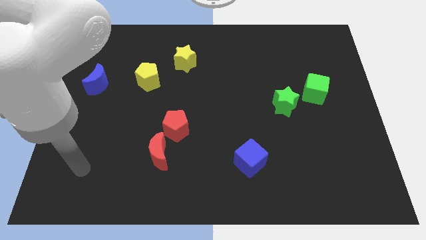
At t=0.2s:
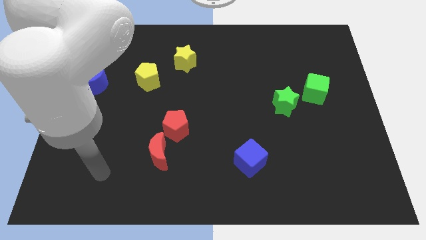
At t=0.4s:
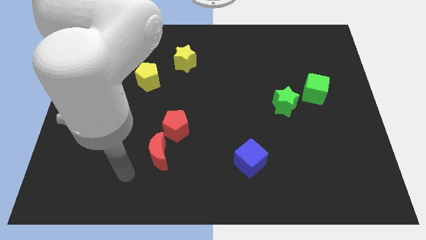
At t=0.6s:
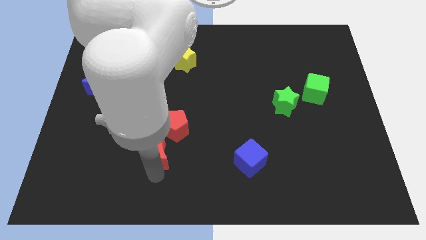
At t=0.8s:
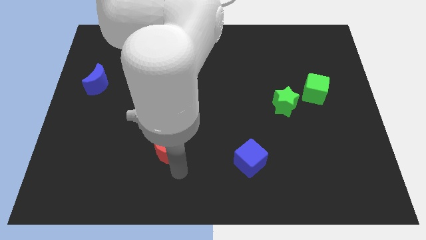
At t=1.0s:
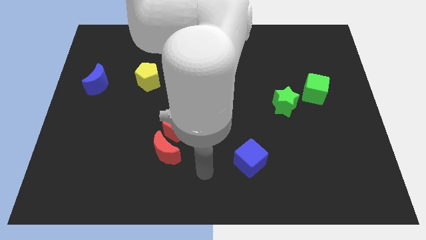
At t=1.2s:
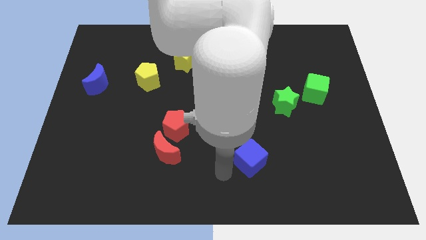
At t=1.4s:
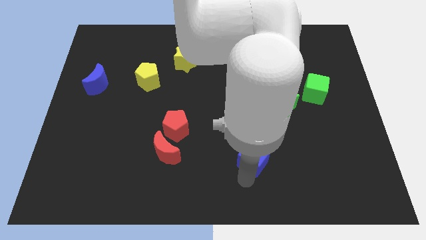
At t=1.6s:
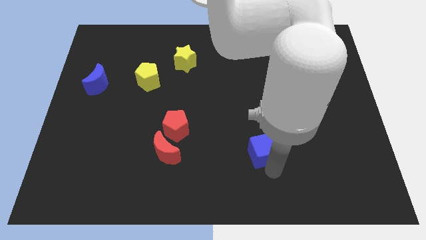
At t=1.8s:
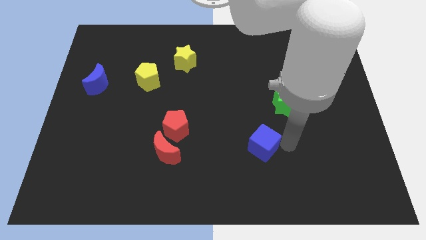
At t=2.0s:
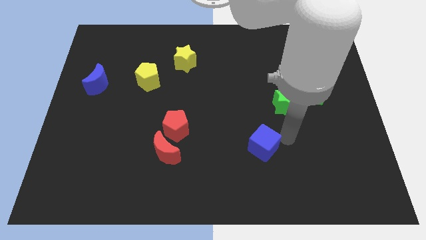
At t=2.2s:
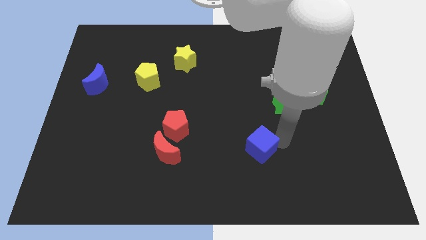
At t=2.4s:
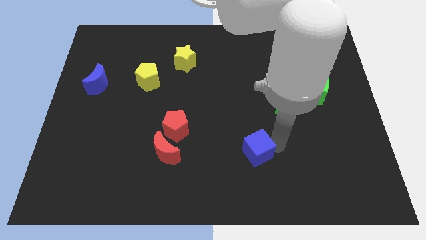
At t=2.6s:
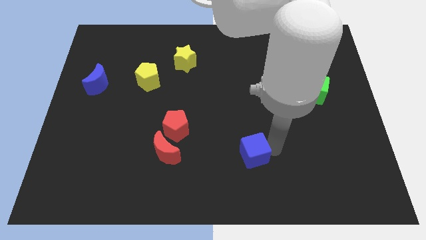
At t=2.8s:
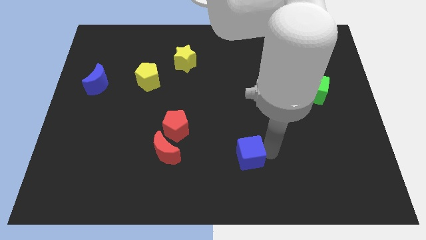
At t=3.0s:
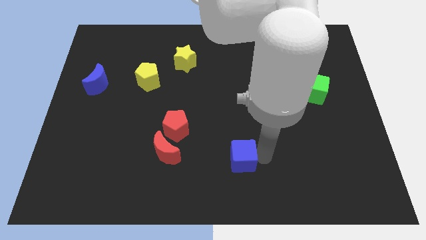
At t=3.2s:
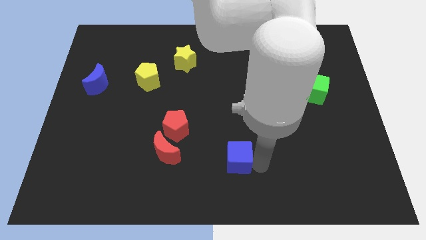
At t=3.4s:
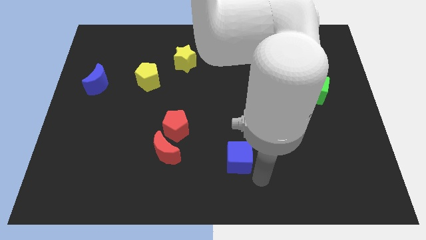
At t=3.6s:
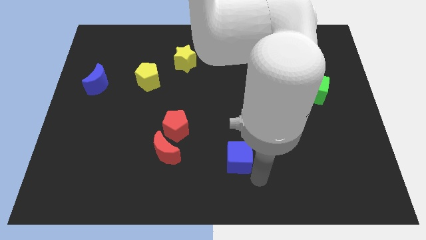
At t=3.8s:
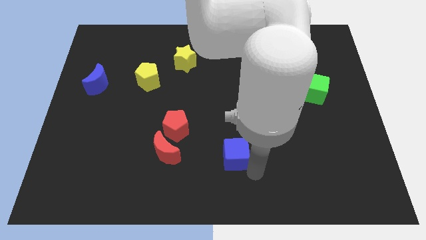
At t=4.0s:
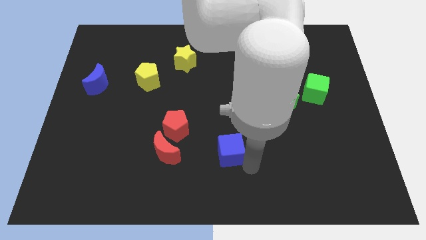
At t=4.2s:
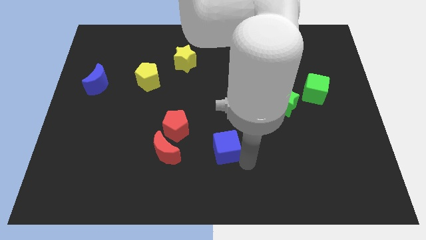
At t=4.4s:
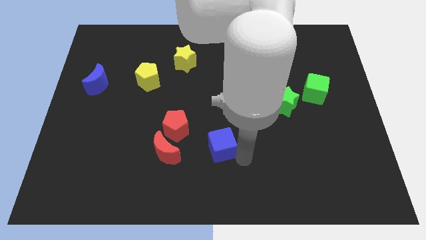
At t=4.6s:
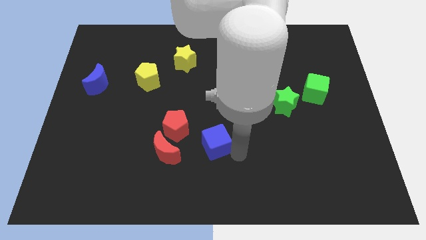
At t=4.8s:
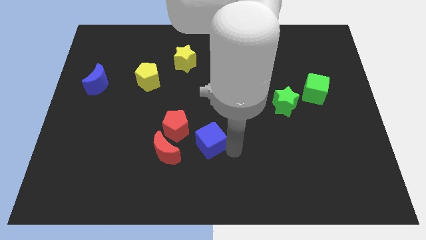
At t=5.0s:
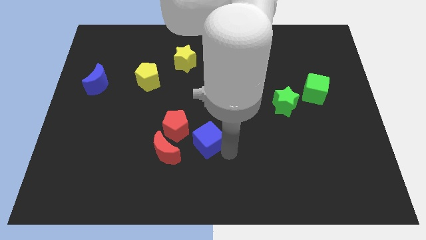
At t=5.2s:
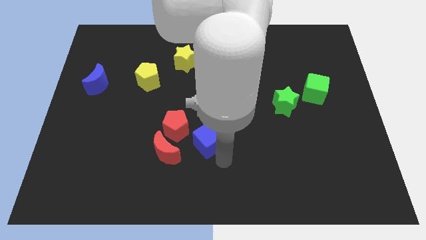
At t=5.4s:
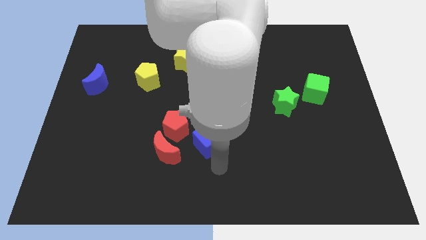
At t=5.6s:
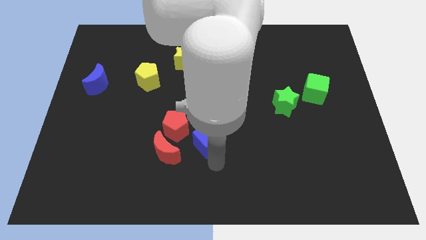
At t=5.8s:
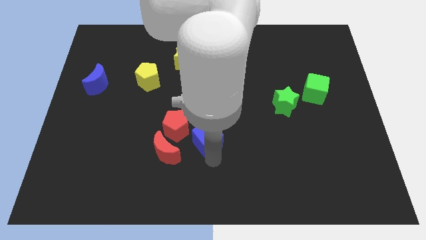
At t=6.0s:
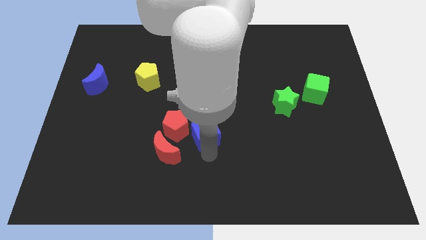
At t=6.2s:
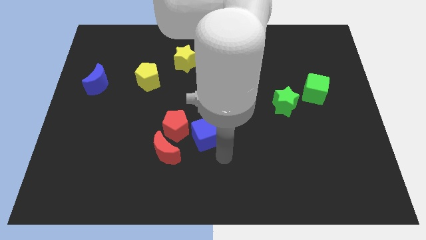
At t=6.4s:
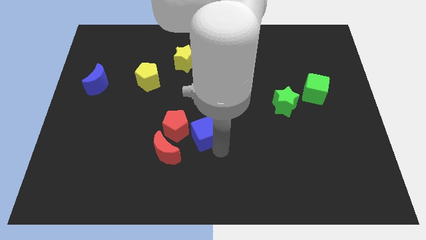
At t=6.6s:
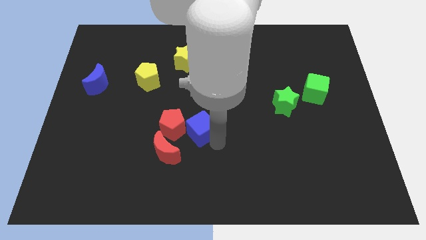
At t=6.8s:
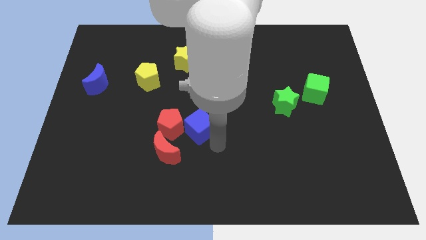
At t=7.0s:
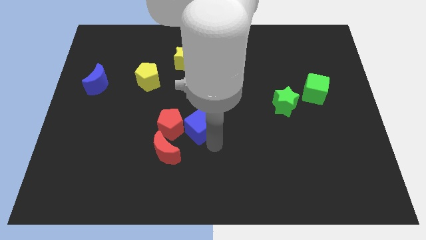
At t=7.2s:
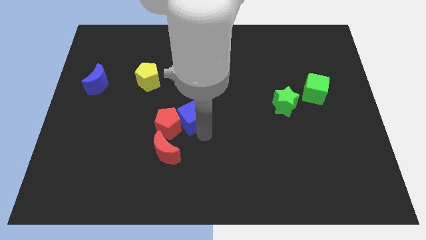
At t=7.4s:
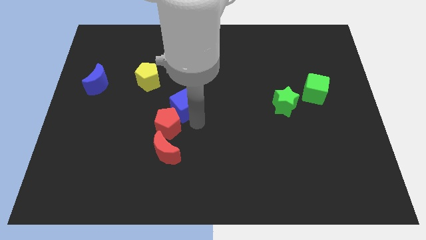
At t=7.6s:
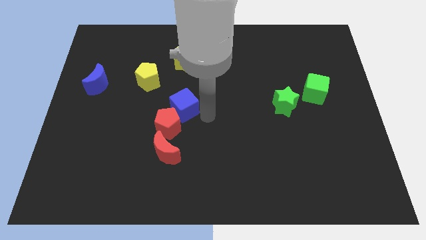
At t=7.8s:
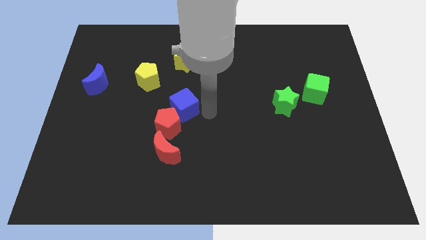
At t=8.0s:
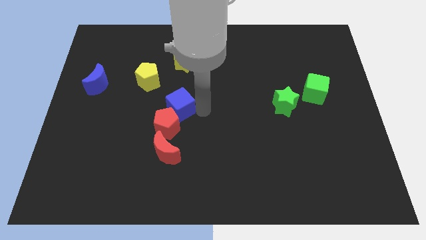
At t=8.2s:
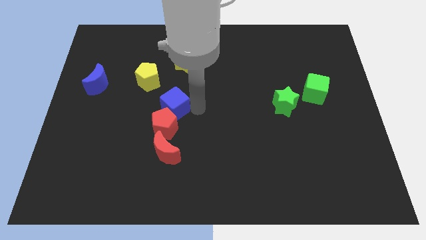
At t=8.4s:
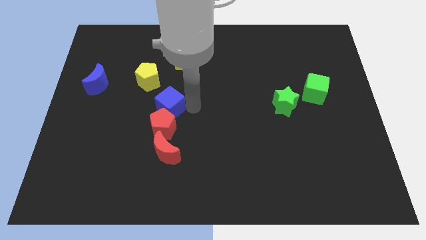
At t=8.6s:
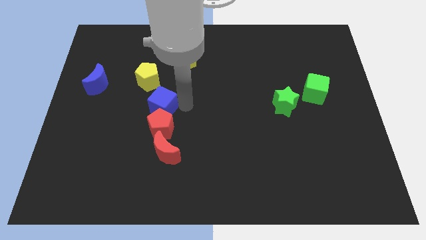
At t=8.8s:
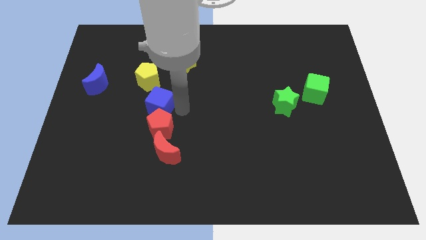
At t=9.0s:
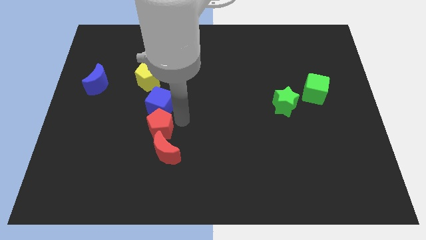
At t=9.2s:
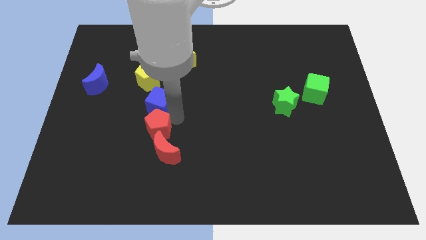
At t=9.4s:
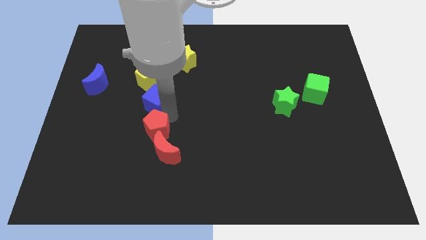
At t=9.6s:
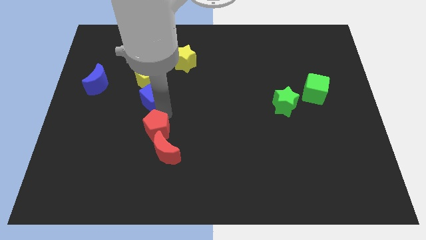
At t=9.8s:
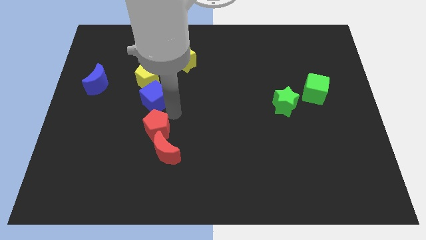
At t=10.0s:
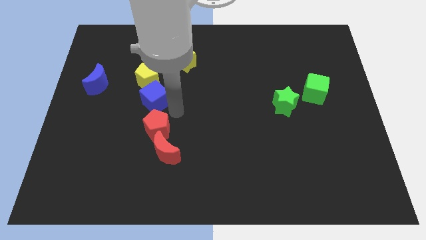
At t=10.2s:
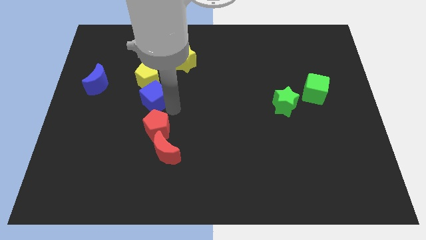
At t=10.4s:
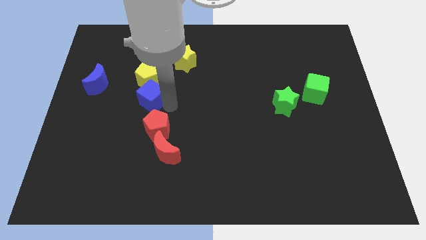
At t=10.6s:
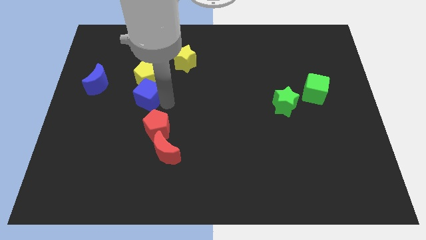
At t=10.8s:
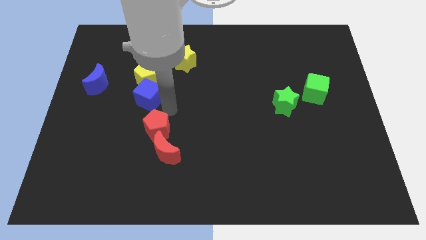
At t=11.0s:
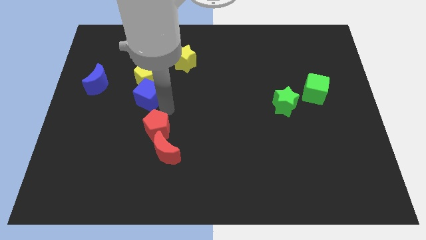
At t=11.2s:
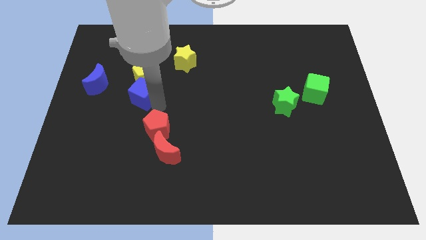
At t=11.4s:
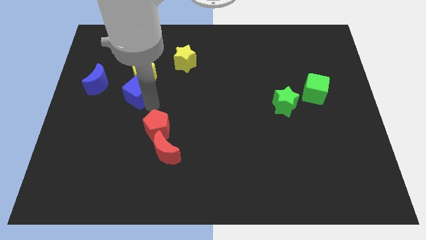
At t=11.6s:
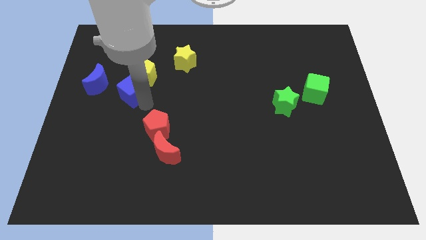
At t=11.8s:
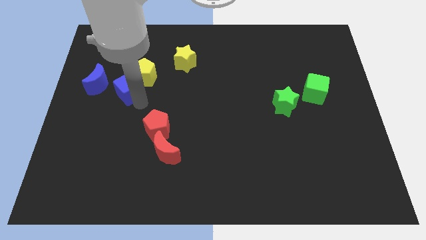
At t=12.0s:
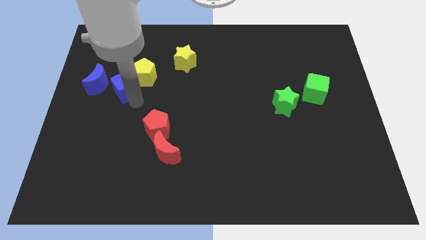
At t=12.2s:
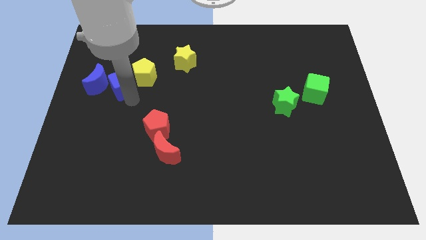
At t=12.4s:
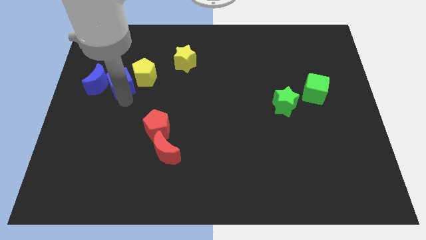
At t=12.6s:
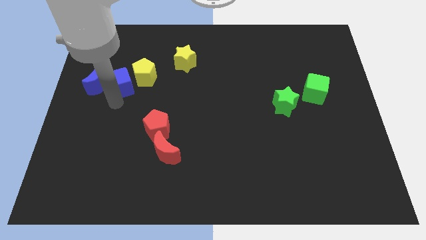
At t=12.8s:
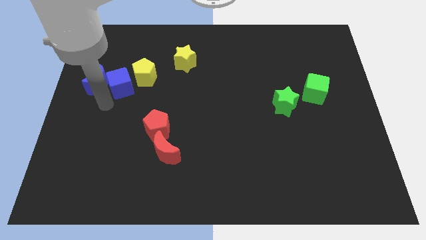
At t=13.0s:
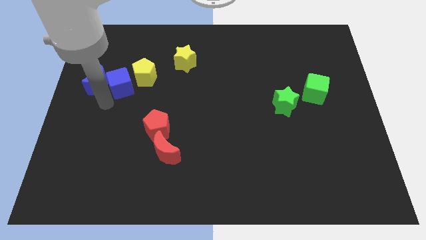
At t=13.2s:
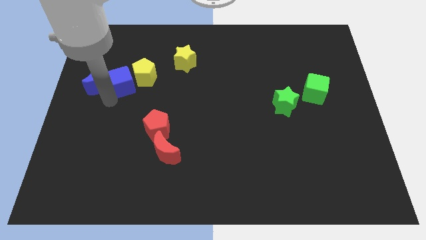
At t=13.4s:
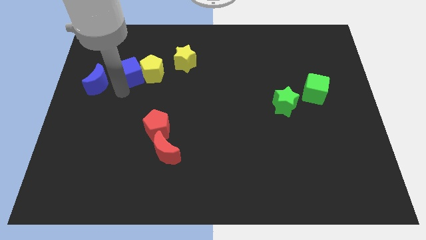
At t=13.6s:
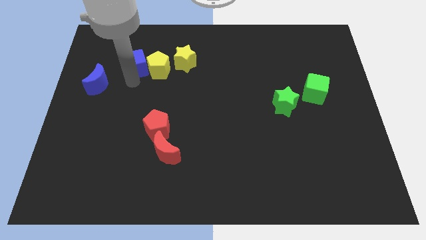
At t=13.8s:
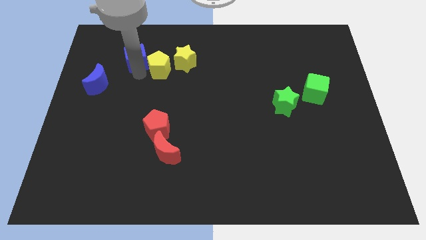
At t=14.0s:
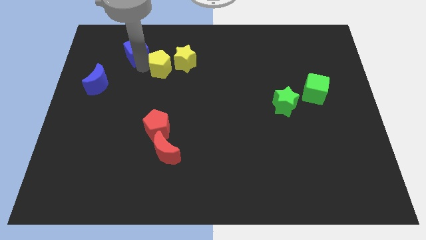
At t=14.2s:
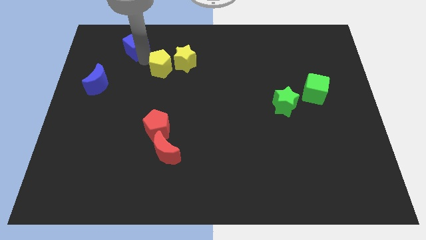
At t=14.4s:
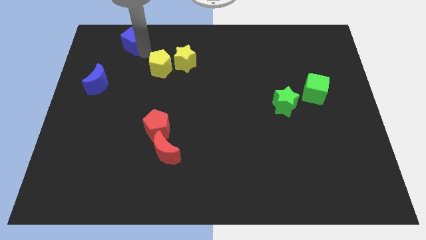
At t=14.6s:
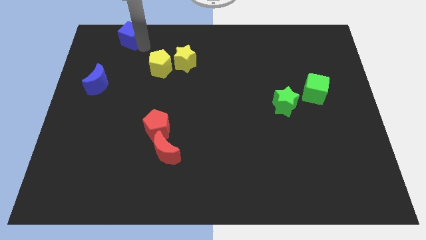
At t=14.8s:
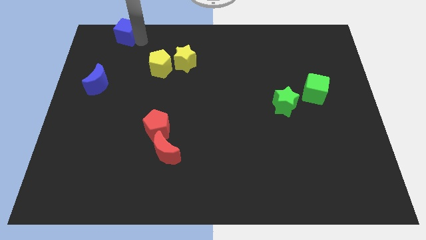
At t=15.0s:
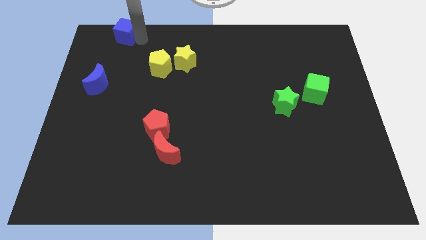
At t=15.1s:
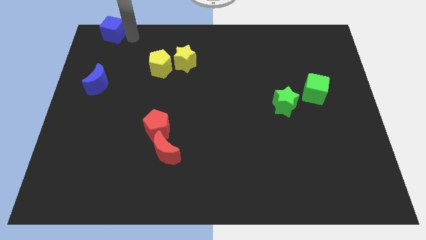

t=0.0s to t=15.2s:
slide the blue cube to the upper left corner
